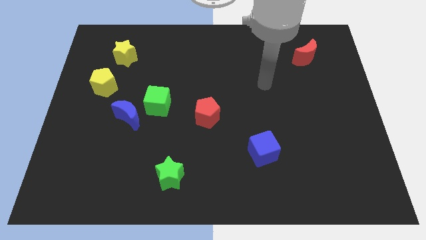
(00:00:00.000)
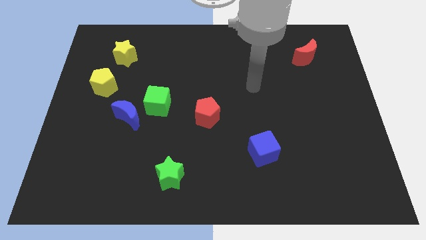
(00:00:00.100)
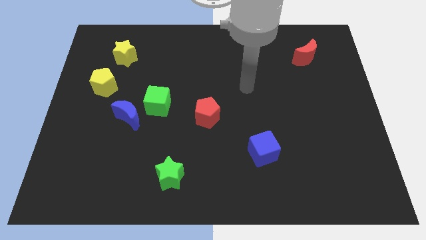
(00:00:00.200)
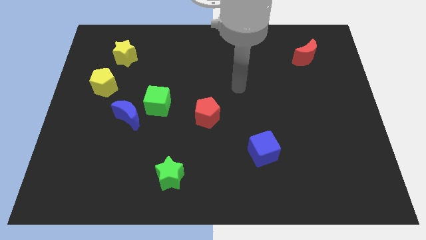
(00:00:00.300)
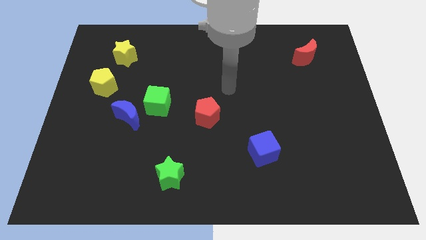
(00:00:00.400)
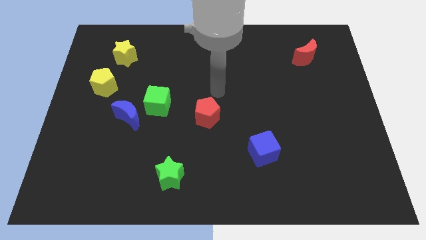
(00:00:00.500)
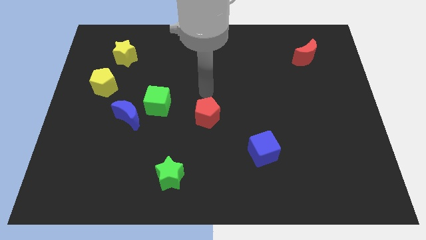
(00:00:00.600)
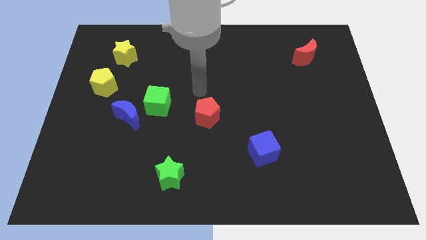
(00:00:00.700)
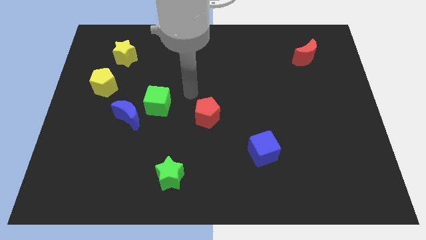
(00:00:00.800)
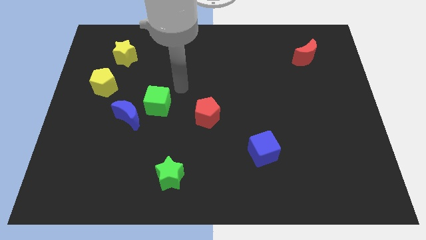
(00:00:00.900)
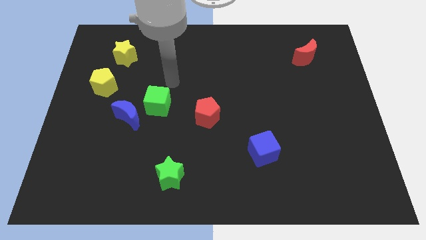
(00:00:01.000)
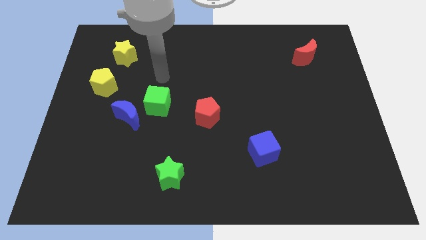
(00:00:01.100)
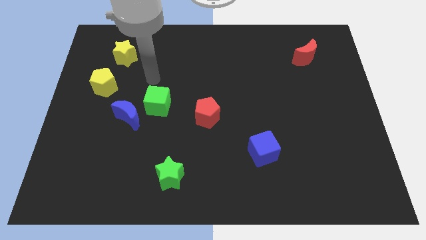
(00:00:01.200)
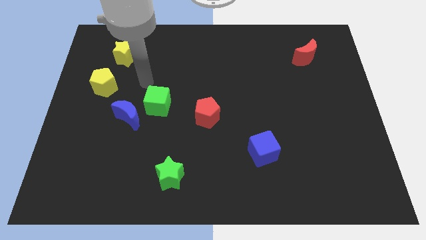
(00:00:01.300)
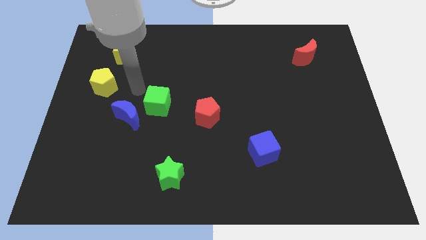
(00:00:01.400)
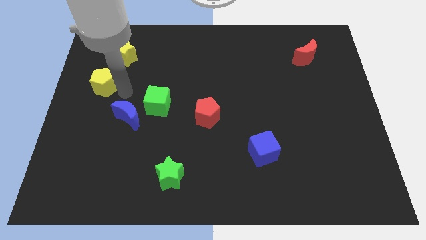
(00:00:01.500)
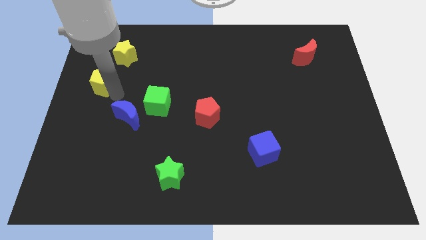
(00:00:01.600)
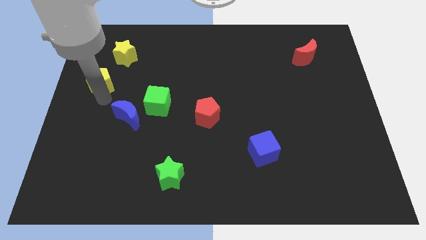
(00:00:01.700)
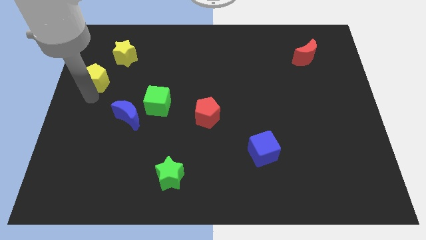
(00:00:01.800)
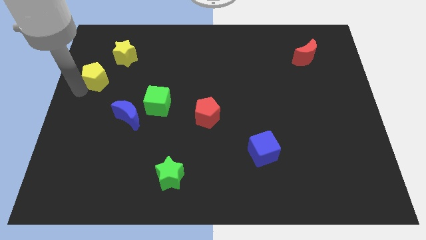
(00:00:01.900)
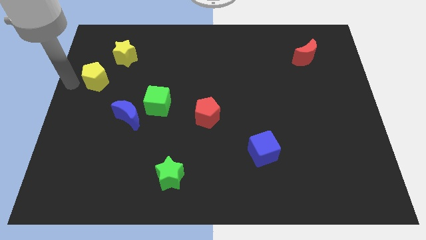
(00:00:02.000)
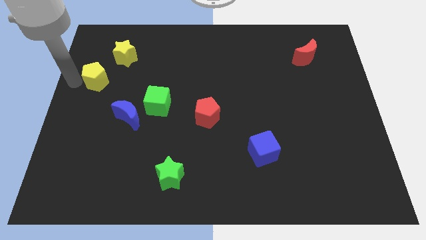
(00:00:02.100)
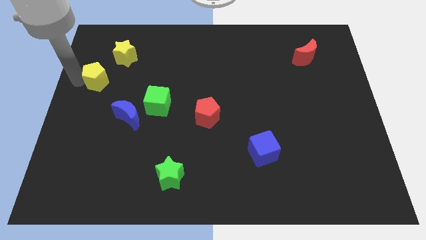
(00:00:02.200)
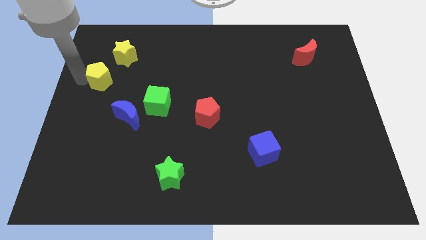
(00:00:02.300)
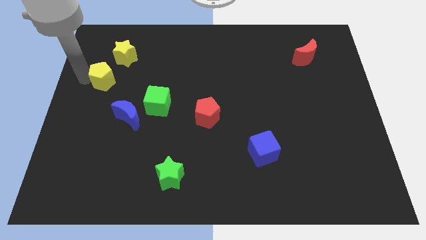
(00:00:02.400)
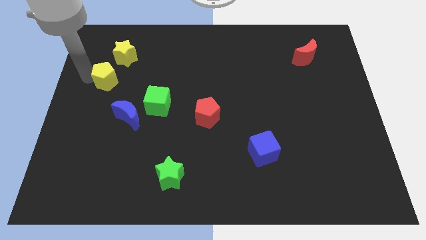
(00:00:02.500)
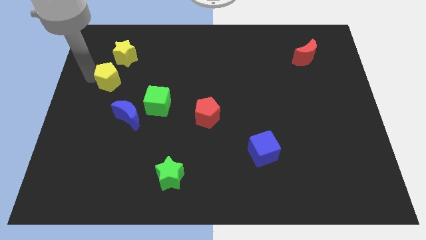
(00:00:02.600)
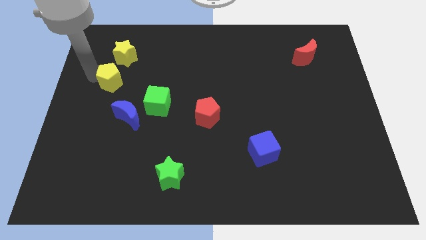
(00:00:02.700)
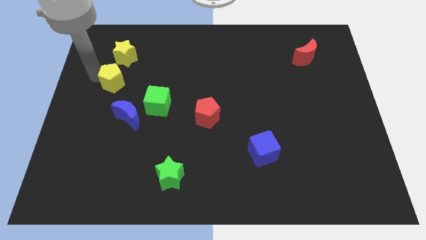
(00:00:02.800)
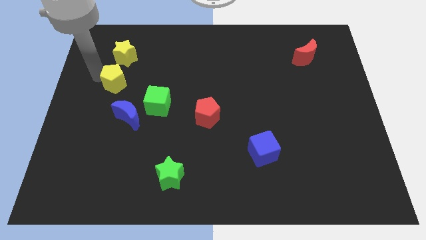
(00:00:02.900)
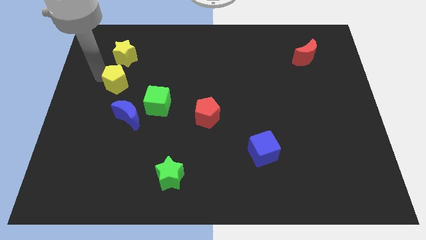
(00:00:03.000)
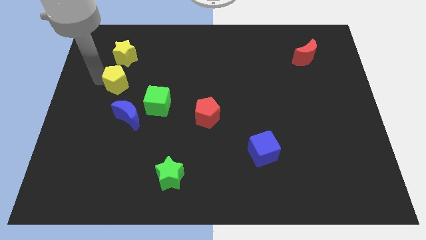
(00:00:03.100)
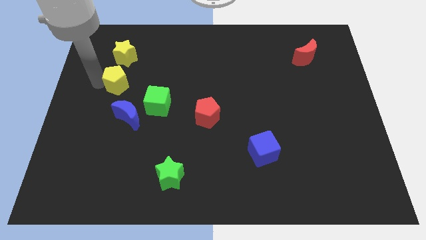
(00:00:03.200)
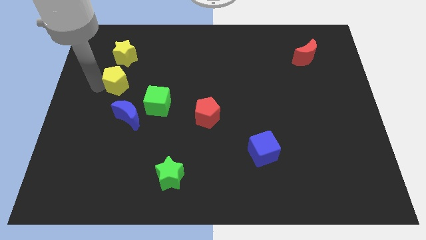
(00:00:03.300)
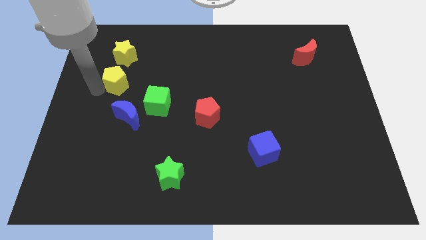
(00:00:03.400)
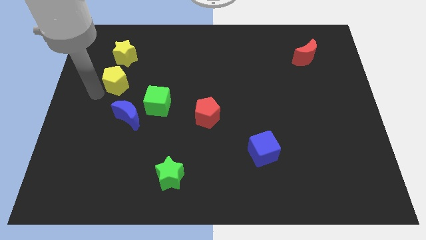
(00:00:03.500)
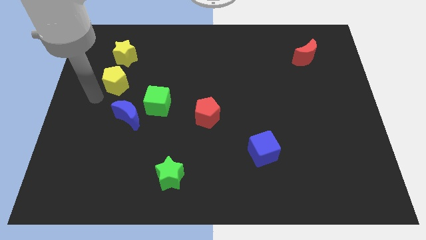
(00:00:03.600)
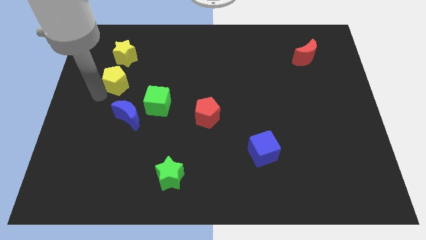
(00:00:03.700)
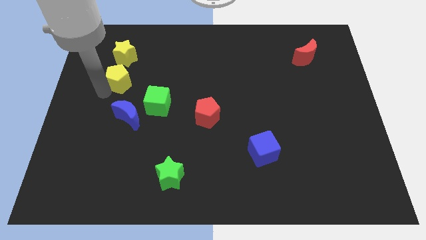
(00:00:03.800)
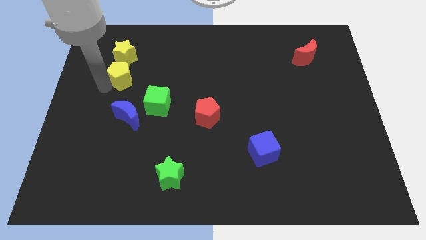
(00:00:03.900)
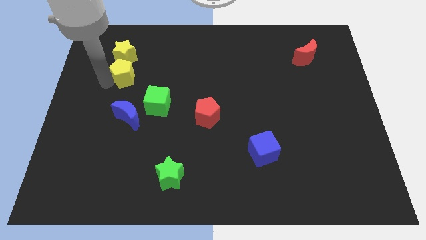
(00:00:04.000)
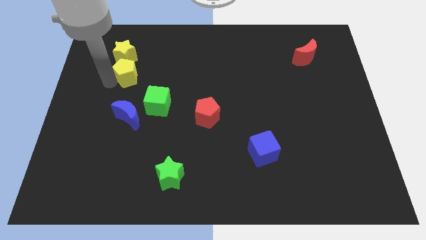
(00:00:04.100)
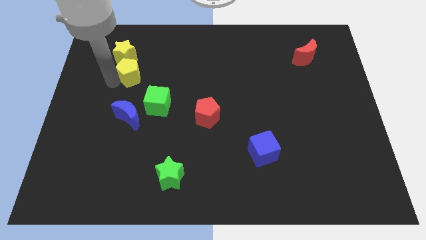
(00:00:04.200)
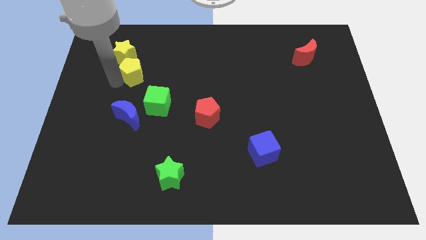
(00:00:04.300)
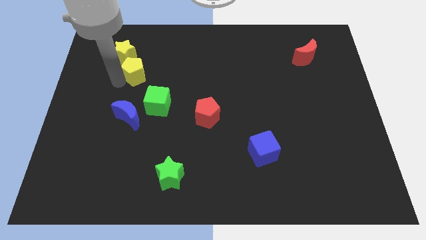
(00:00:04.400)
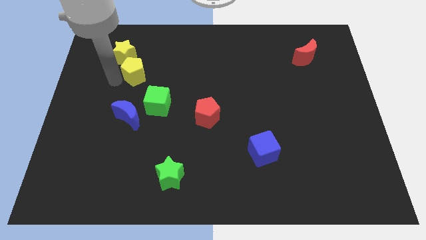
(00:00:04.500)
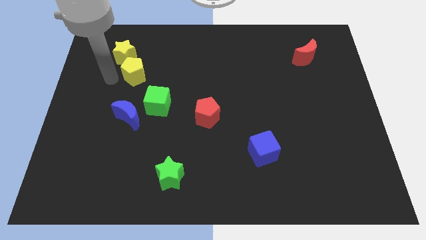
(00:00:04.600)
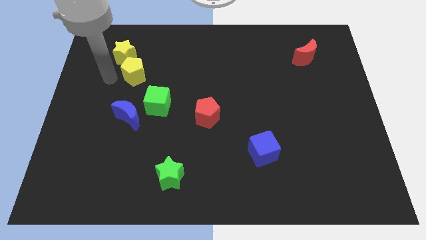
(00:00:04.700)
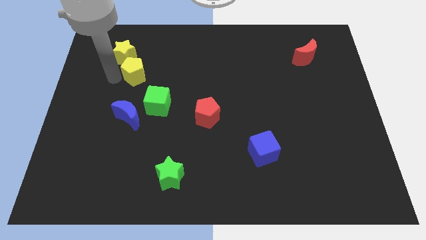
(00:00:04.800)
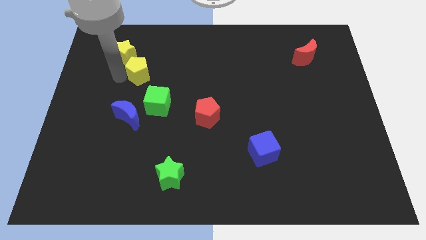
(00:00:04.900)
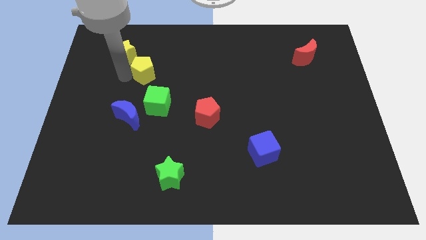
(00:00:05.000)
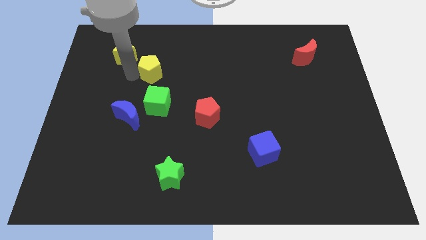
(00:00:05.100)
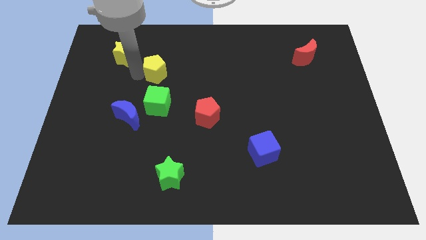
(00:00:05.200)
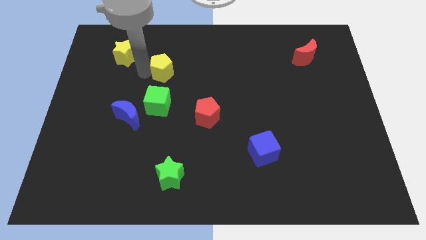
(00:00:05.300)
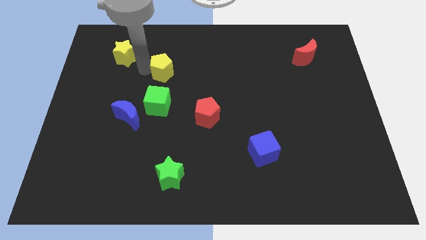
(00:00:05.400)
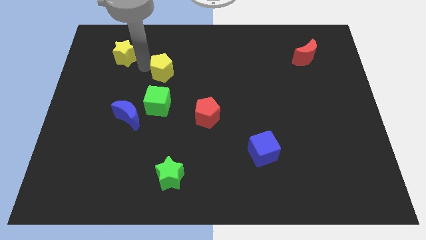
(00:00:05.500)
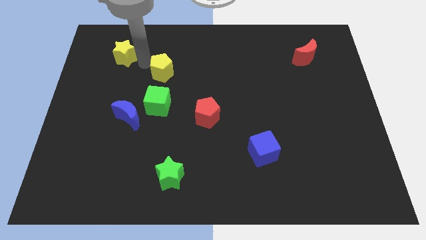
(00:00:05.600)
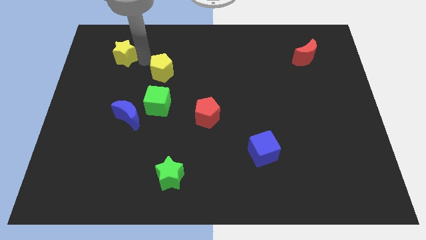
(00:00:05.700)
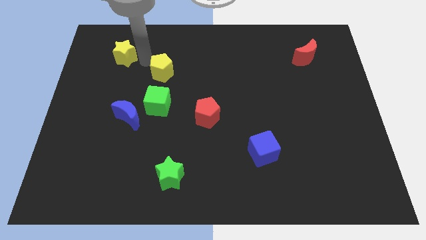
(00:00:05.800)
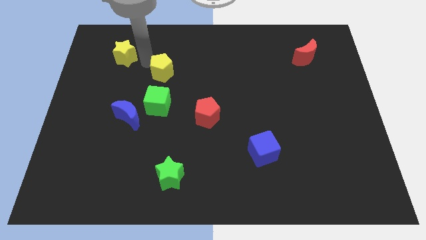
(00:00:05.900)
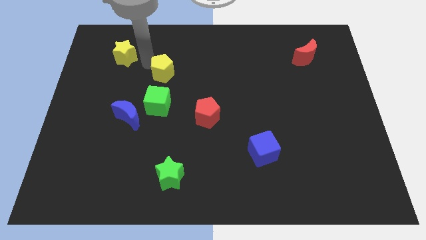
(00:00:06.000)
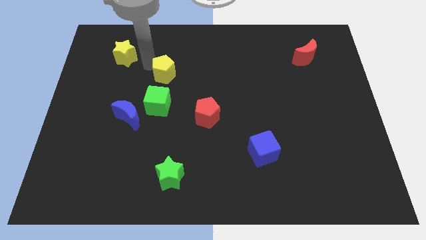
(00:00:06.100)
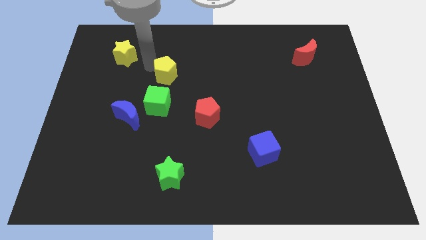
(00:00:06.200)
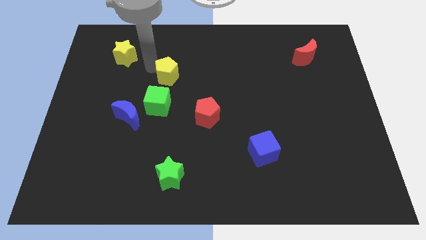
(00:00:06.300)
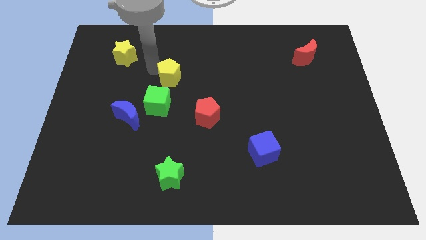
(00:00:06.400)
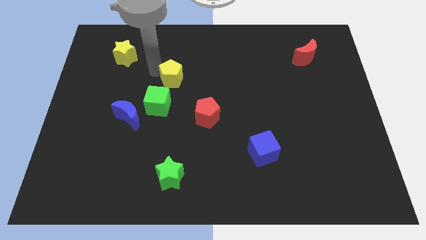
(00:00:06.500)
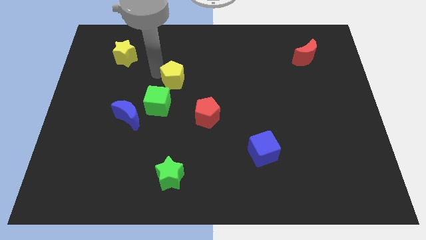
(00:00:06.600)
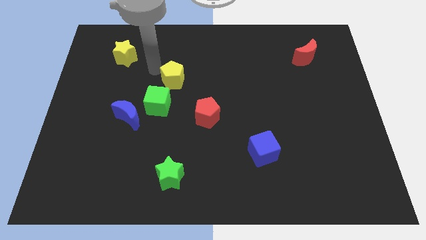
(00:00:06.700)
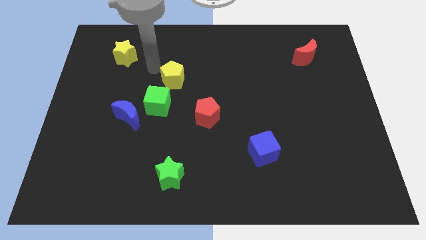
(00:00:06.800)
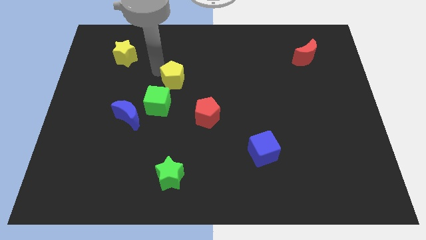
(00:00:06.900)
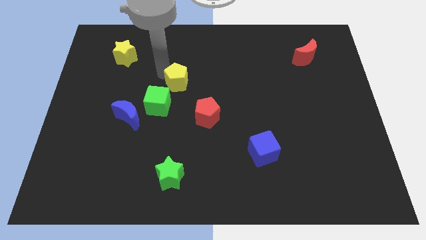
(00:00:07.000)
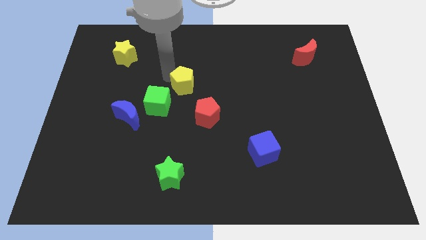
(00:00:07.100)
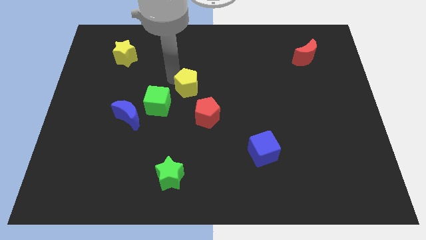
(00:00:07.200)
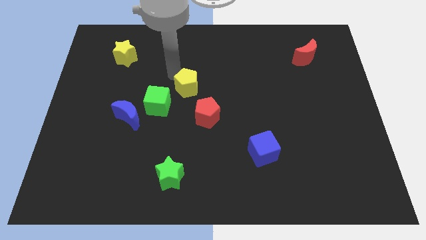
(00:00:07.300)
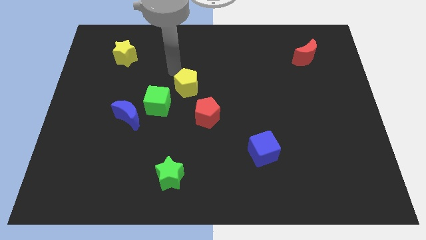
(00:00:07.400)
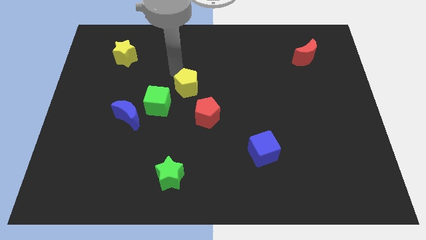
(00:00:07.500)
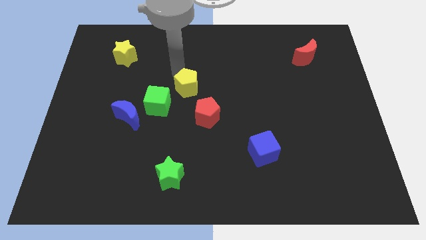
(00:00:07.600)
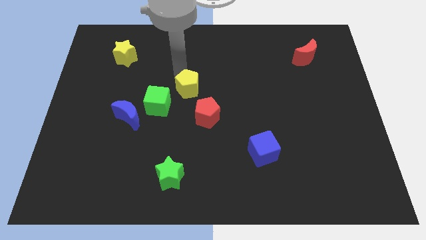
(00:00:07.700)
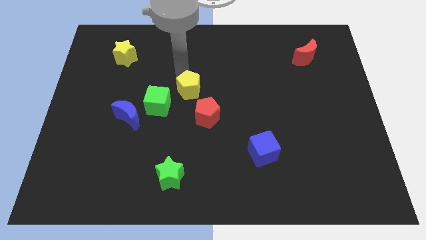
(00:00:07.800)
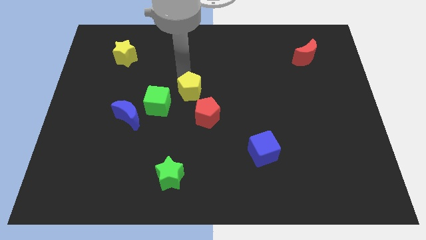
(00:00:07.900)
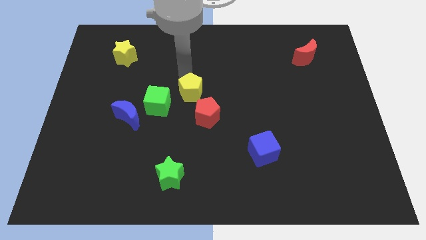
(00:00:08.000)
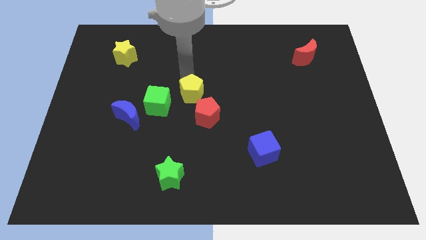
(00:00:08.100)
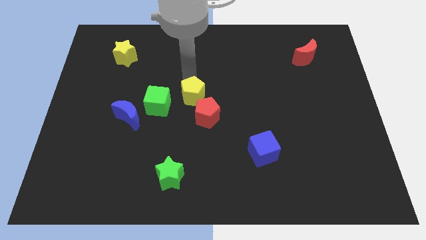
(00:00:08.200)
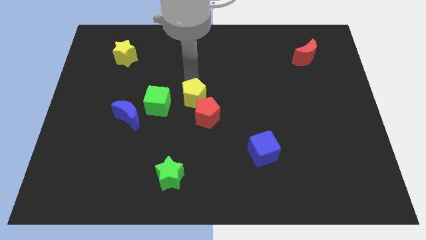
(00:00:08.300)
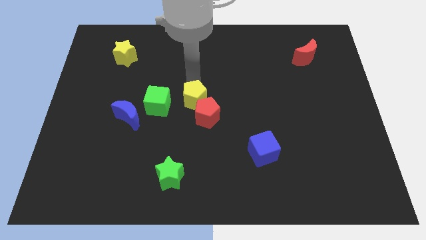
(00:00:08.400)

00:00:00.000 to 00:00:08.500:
move the yellow pentagon close to the red pentagon
